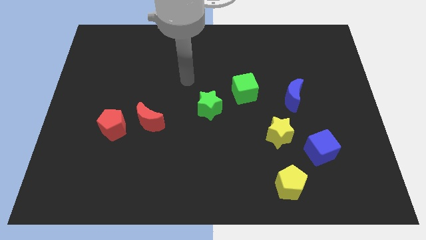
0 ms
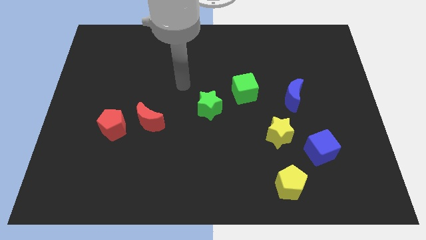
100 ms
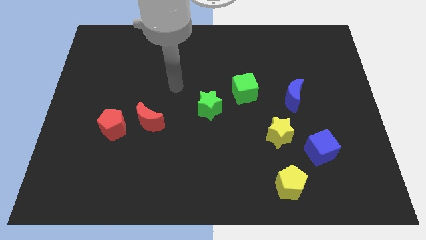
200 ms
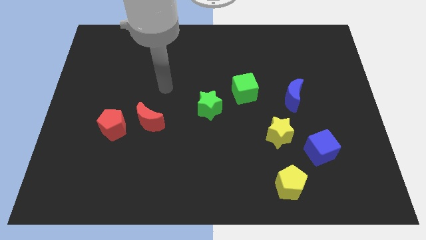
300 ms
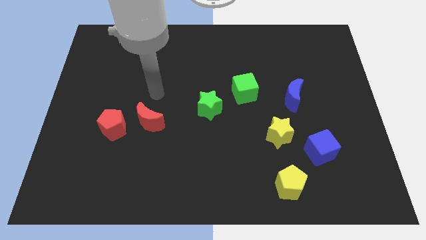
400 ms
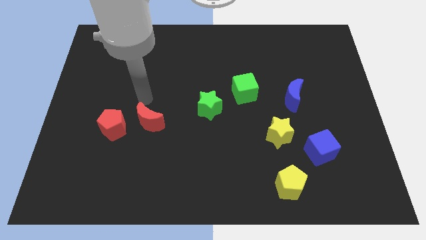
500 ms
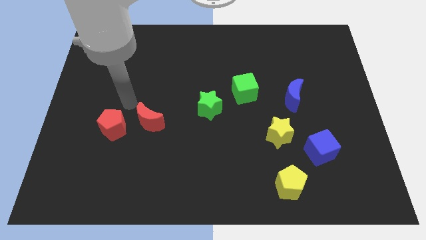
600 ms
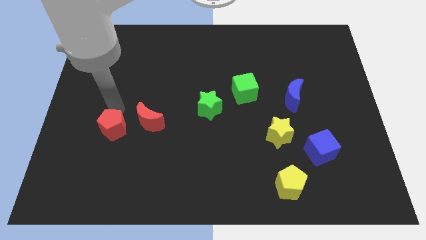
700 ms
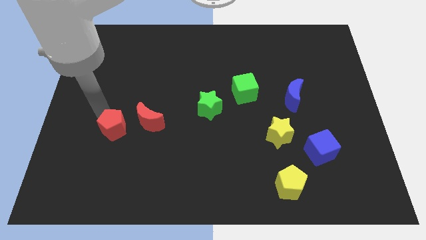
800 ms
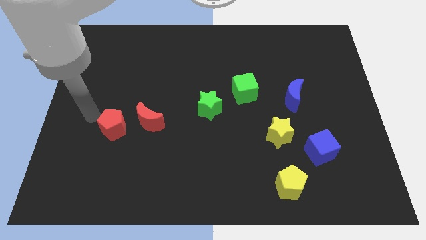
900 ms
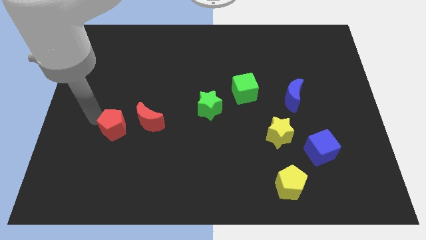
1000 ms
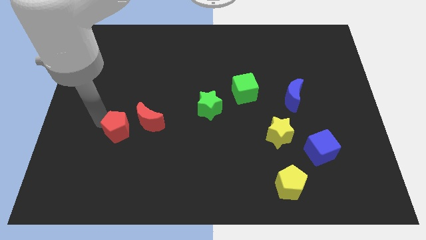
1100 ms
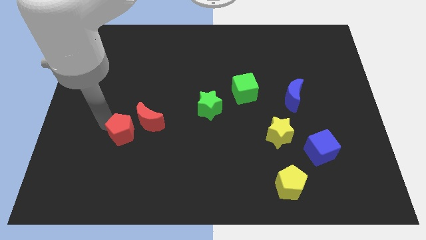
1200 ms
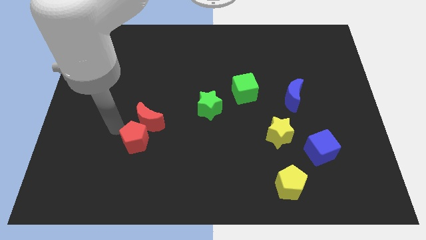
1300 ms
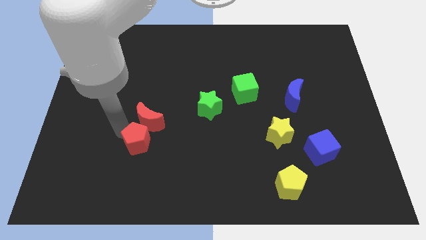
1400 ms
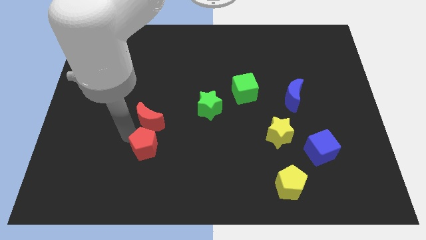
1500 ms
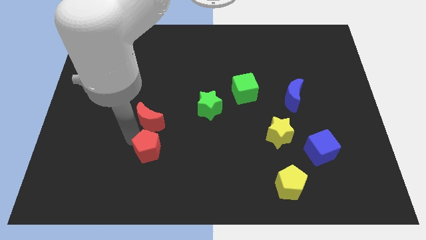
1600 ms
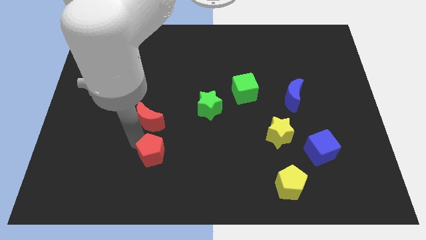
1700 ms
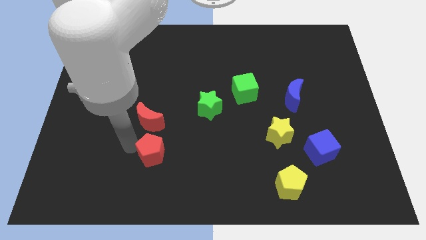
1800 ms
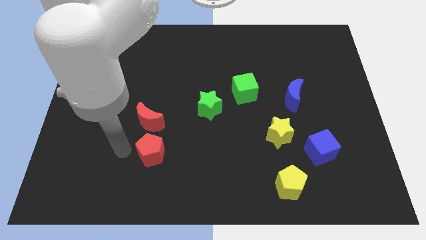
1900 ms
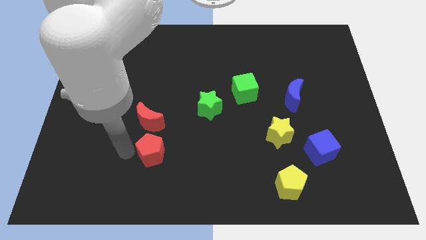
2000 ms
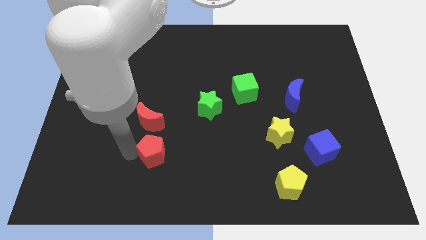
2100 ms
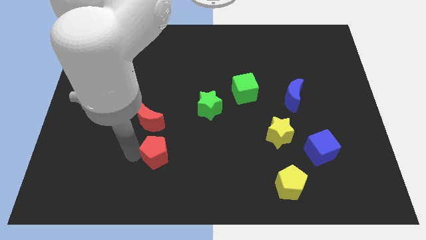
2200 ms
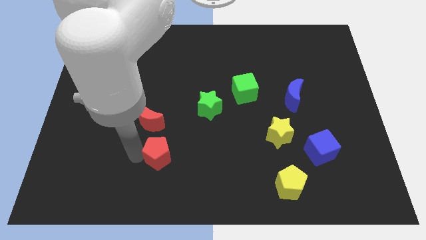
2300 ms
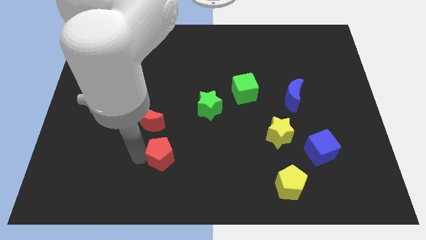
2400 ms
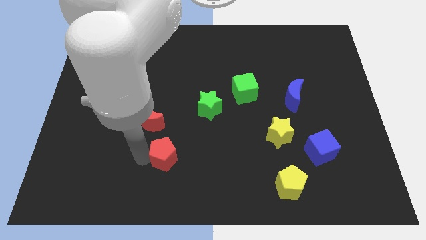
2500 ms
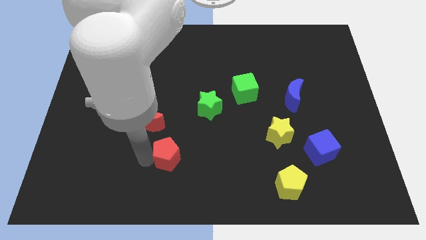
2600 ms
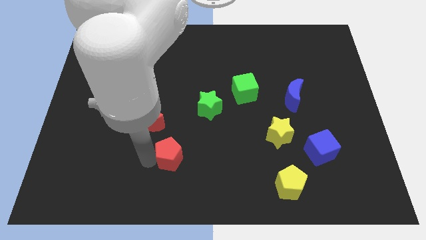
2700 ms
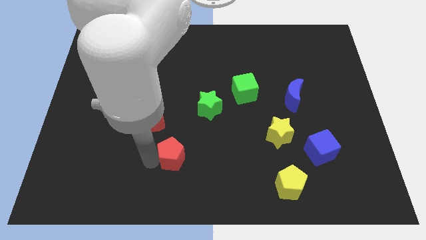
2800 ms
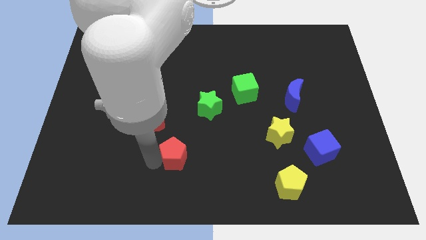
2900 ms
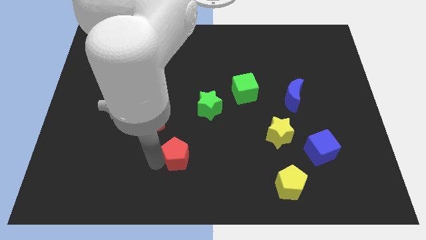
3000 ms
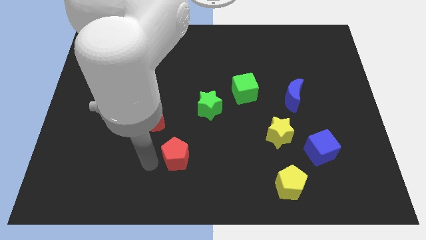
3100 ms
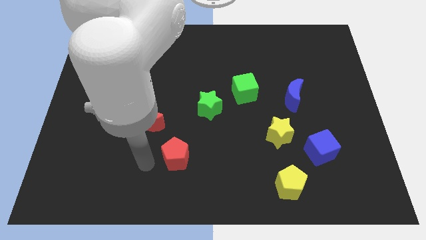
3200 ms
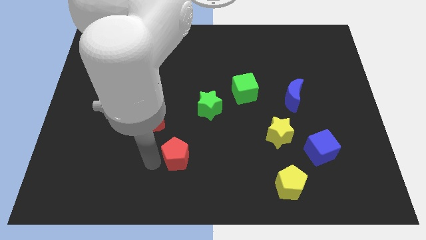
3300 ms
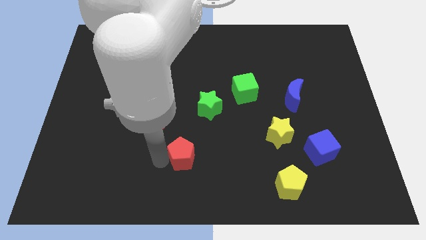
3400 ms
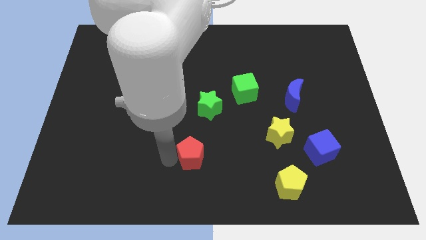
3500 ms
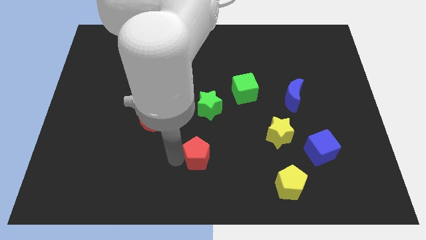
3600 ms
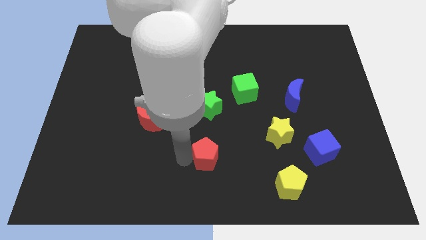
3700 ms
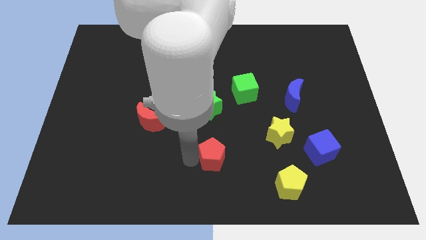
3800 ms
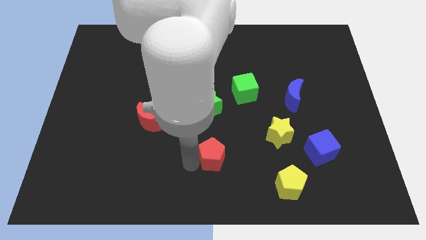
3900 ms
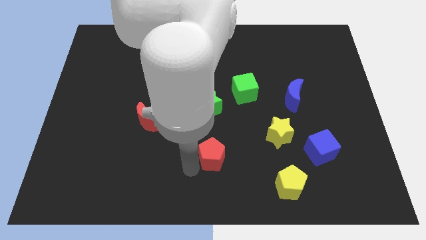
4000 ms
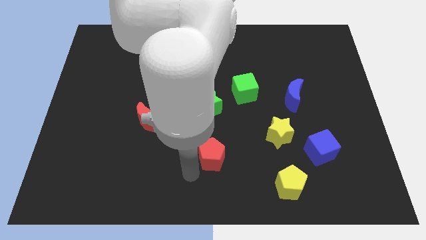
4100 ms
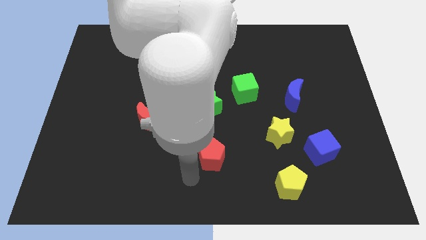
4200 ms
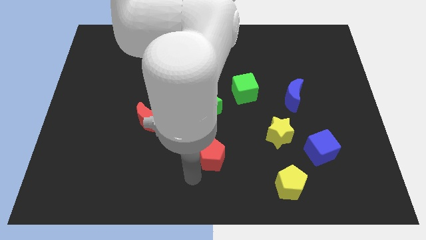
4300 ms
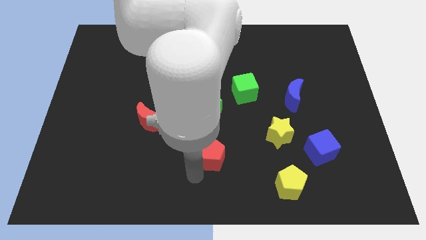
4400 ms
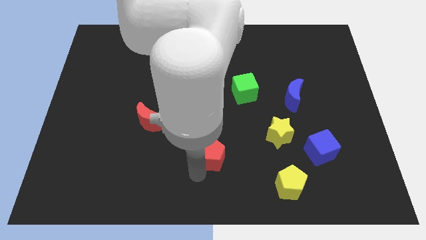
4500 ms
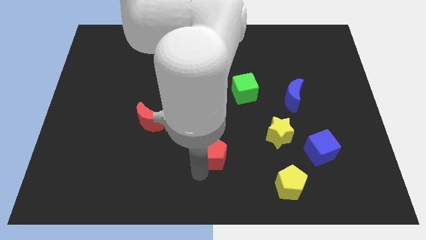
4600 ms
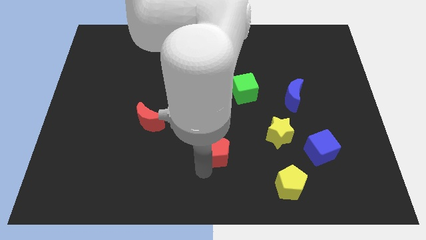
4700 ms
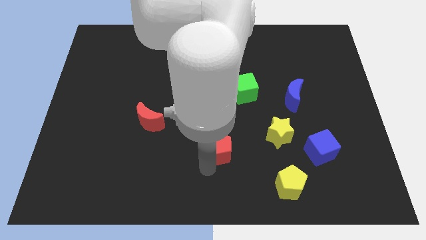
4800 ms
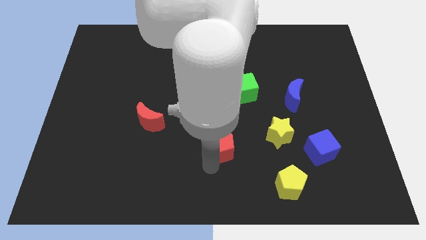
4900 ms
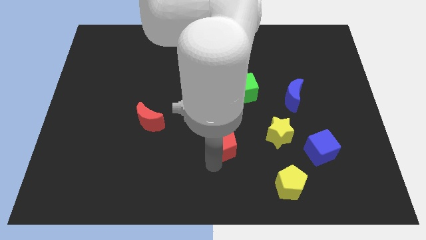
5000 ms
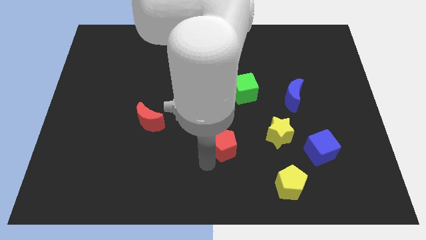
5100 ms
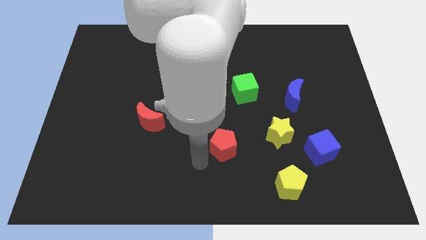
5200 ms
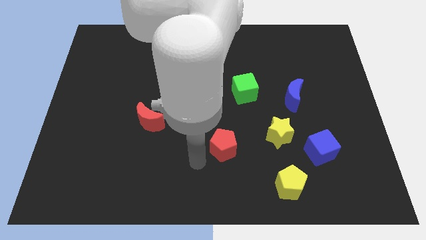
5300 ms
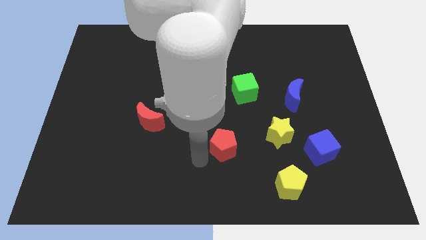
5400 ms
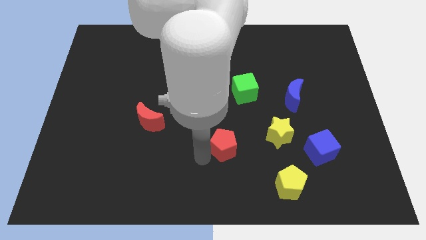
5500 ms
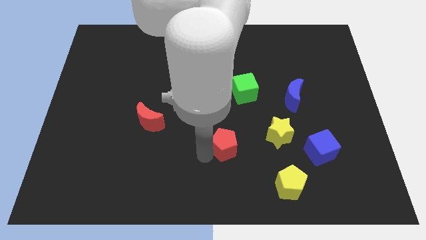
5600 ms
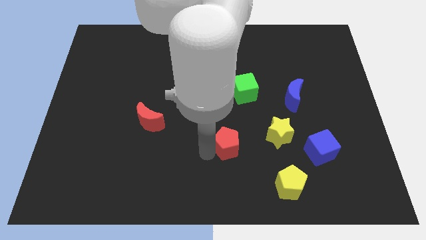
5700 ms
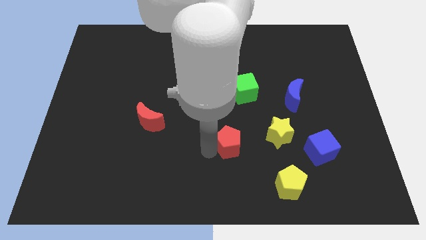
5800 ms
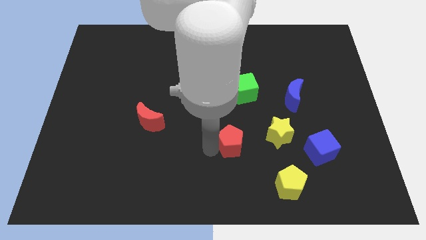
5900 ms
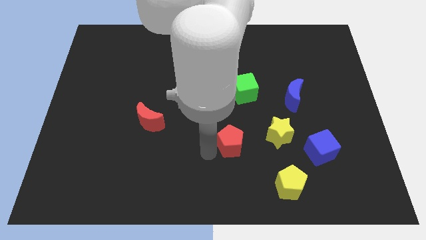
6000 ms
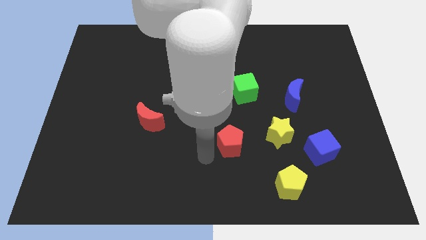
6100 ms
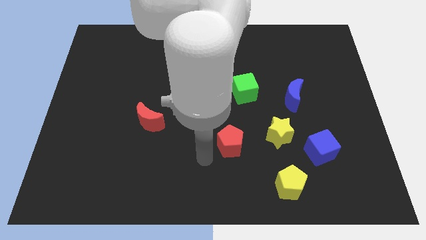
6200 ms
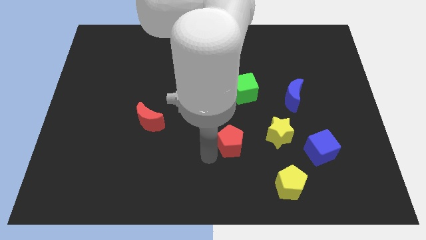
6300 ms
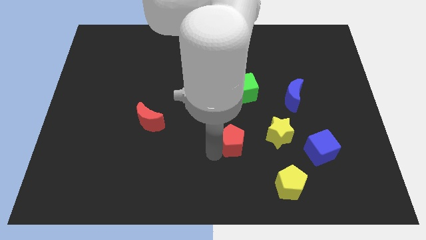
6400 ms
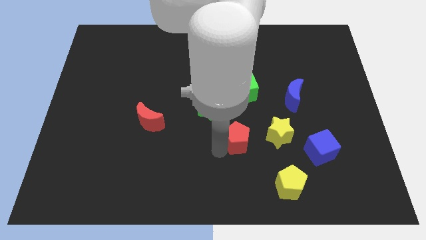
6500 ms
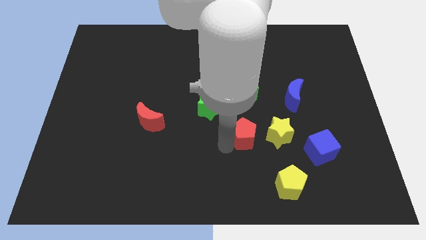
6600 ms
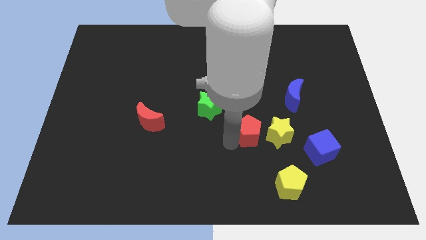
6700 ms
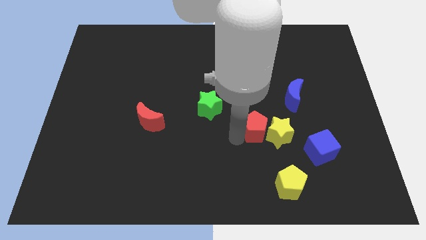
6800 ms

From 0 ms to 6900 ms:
put the red pentagon towards the yellow star

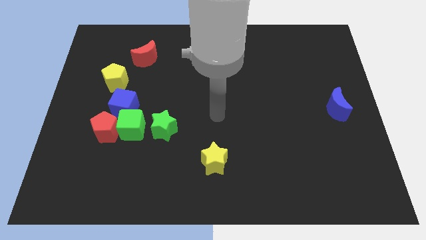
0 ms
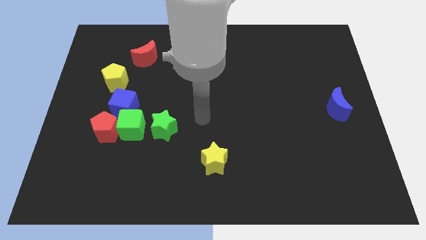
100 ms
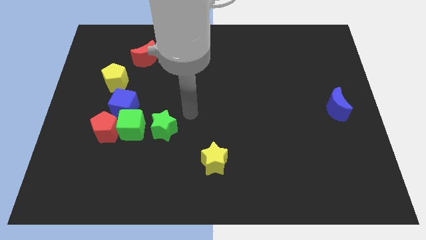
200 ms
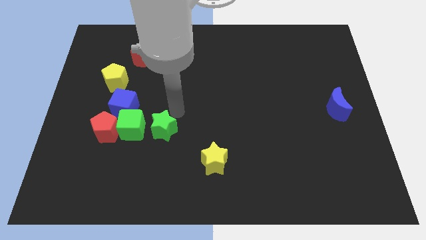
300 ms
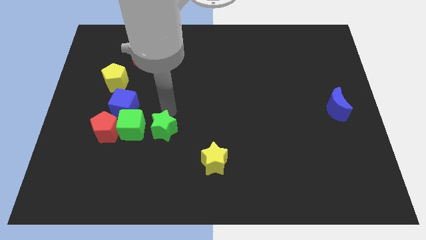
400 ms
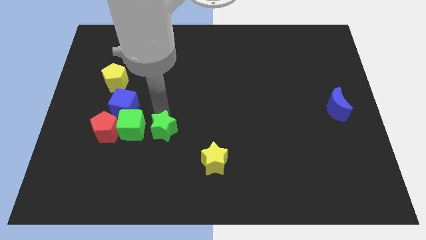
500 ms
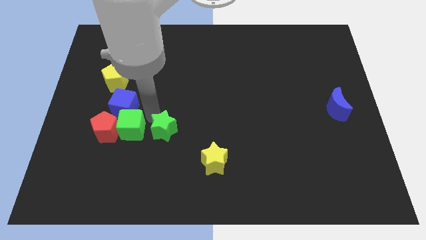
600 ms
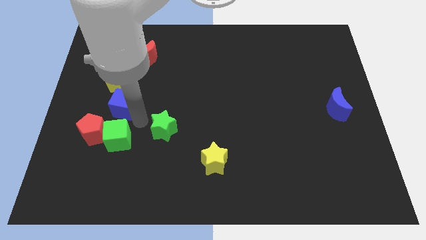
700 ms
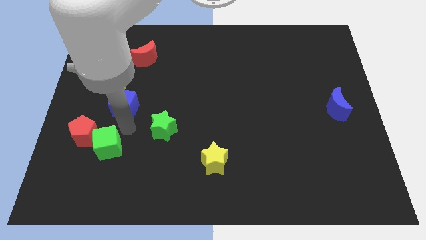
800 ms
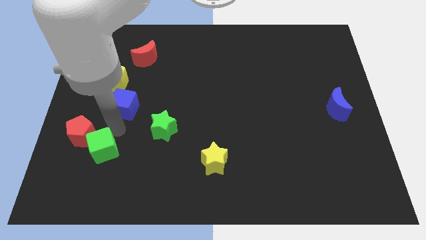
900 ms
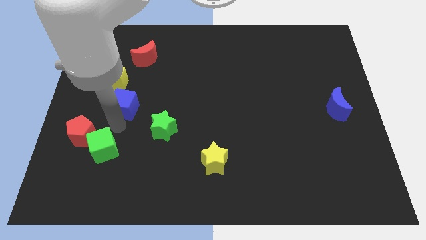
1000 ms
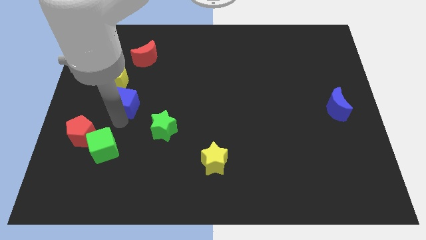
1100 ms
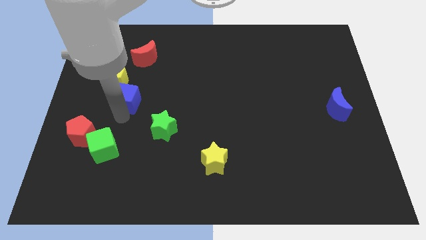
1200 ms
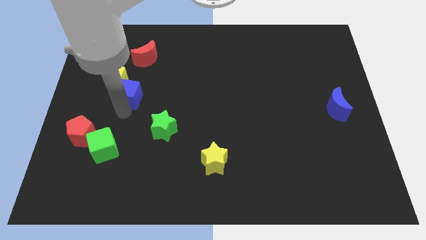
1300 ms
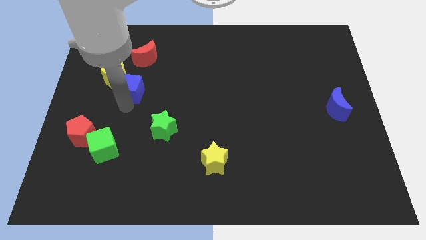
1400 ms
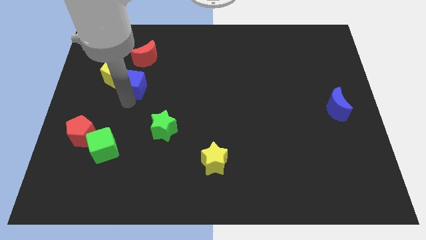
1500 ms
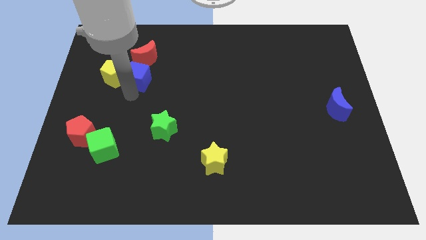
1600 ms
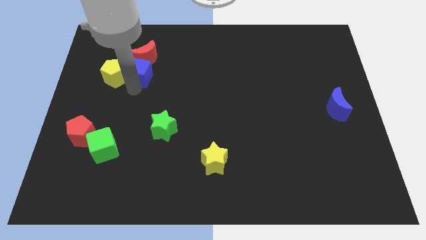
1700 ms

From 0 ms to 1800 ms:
push the blue cube towards the red moon
